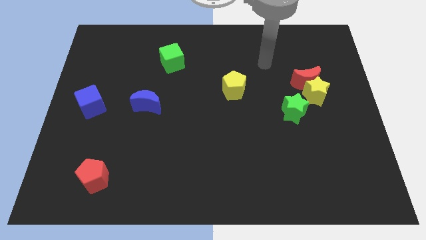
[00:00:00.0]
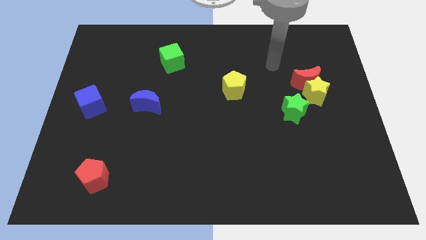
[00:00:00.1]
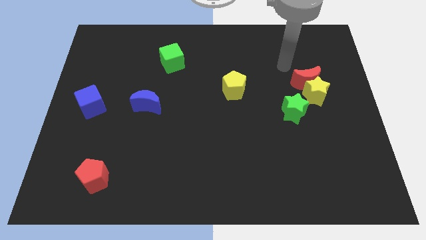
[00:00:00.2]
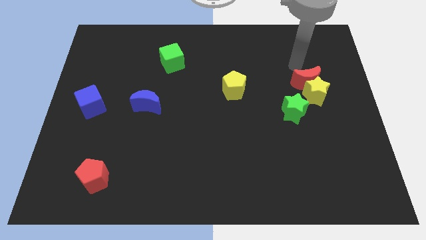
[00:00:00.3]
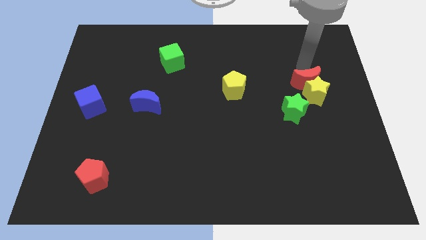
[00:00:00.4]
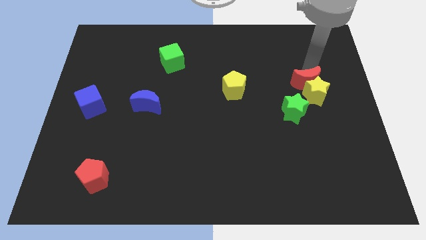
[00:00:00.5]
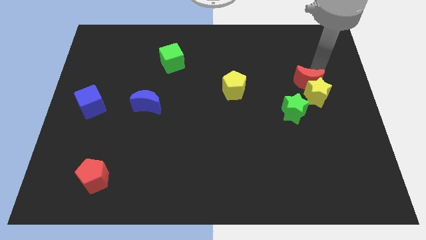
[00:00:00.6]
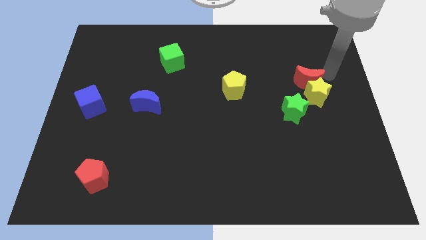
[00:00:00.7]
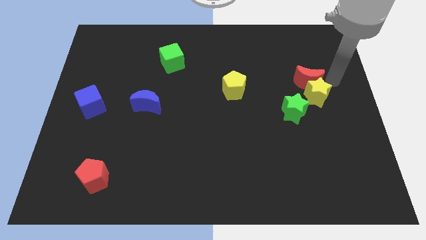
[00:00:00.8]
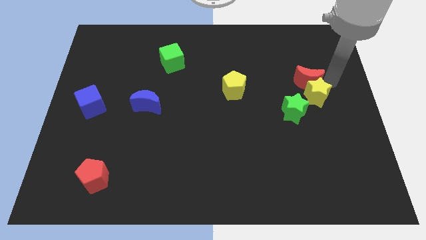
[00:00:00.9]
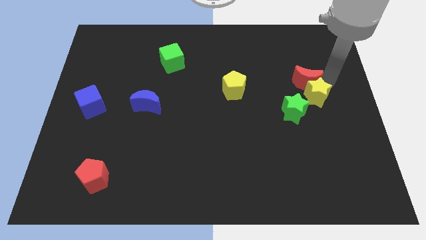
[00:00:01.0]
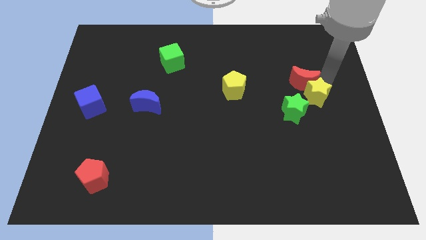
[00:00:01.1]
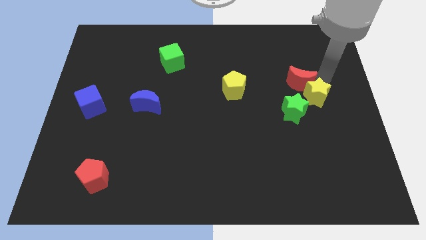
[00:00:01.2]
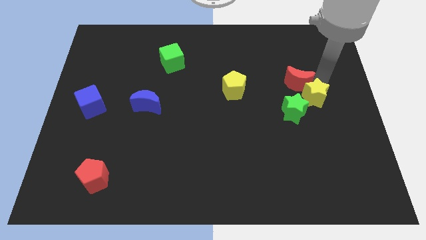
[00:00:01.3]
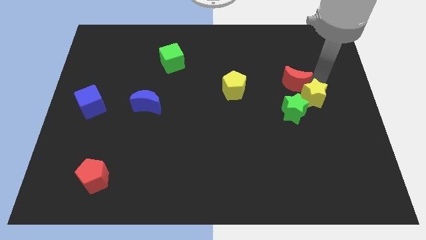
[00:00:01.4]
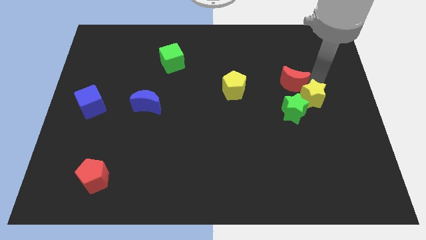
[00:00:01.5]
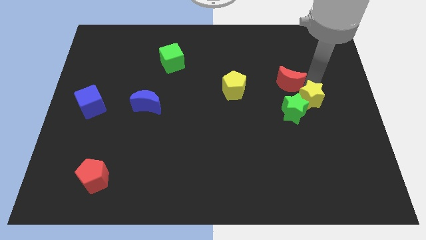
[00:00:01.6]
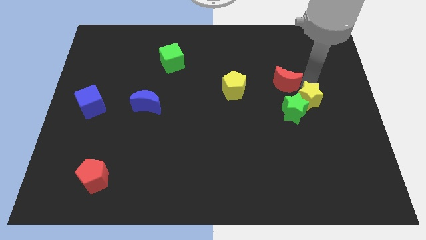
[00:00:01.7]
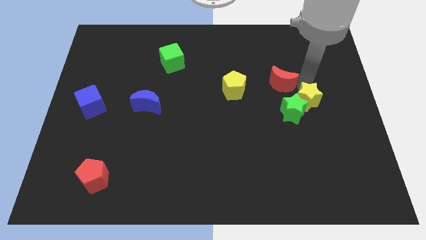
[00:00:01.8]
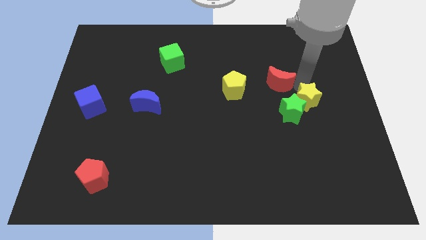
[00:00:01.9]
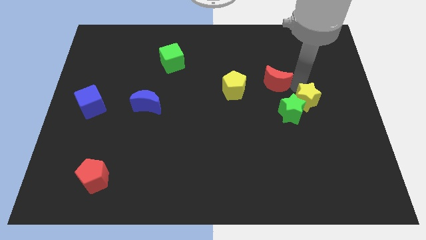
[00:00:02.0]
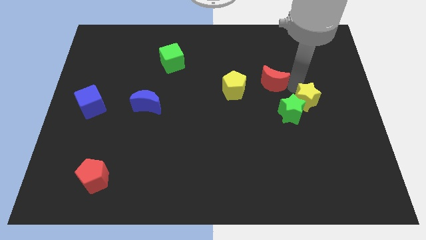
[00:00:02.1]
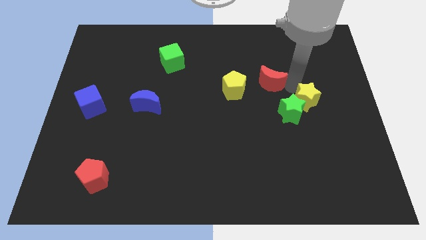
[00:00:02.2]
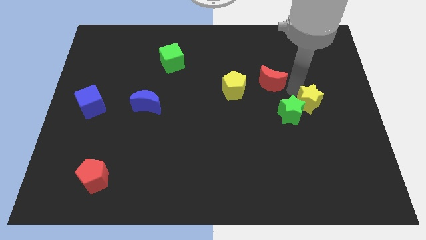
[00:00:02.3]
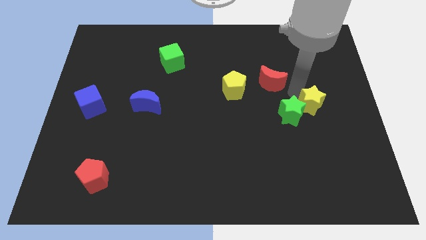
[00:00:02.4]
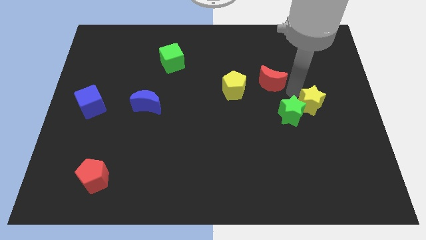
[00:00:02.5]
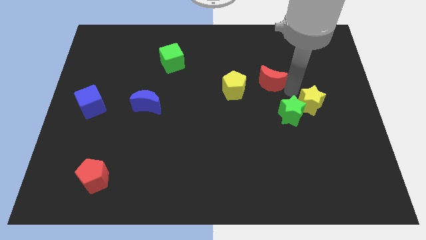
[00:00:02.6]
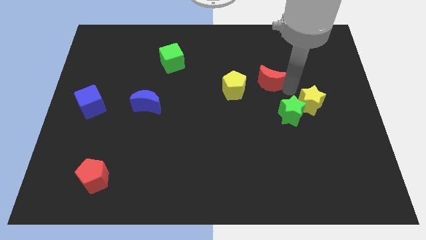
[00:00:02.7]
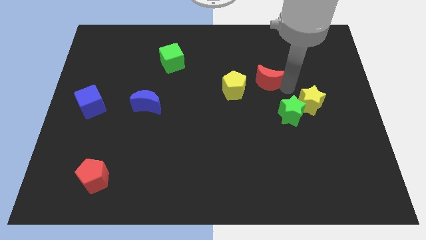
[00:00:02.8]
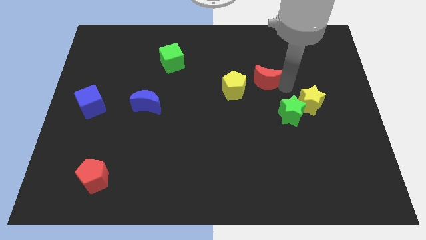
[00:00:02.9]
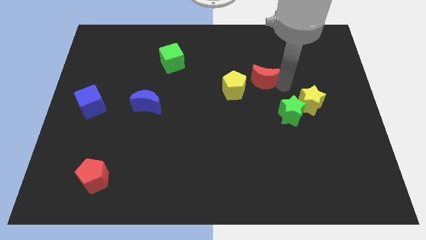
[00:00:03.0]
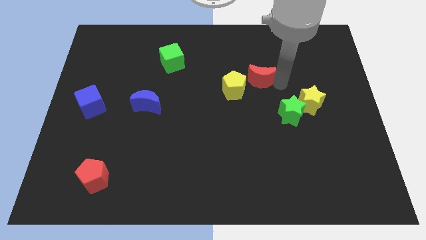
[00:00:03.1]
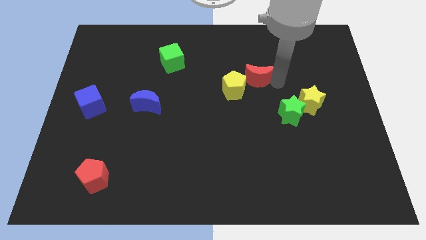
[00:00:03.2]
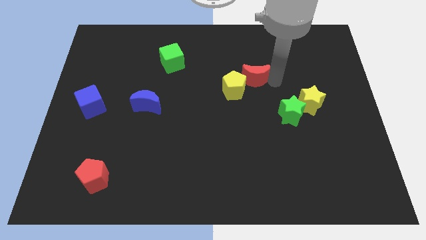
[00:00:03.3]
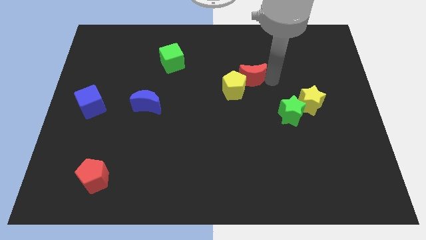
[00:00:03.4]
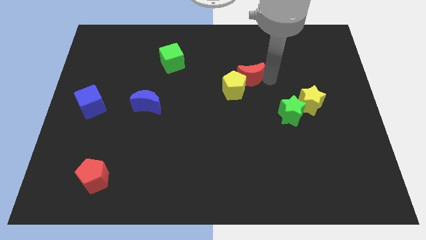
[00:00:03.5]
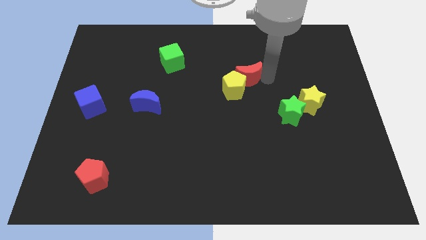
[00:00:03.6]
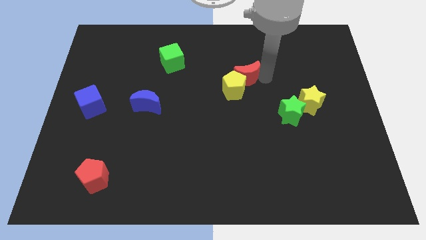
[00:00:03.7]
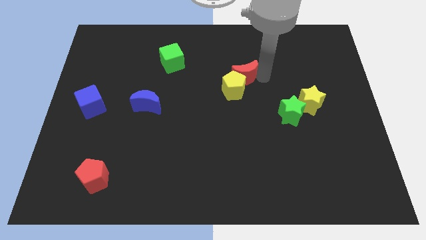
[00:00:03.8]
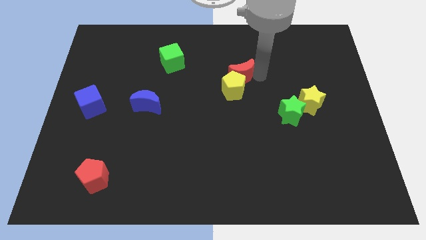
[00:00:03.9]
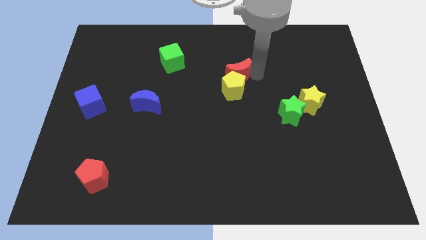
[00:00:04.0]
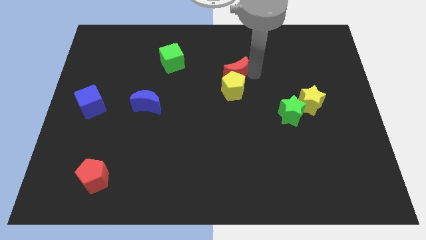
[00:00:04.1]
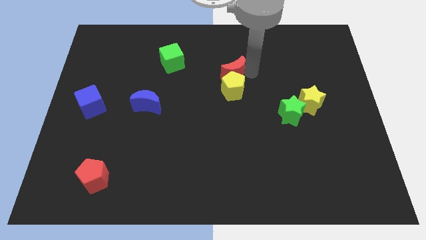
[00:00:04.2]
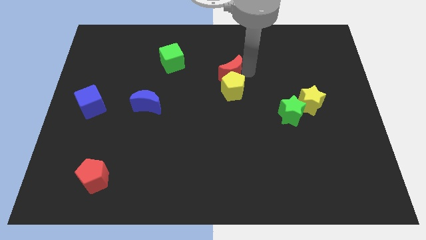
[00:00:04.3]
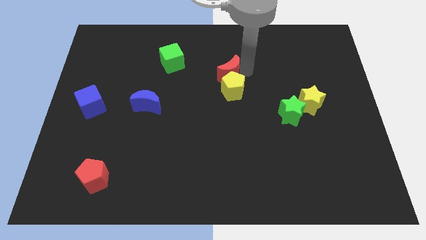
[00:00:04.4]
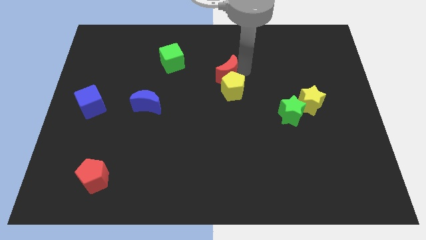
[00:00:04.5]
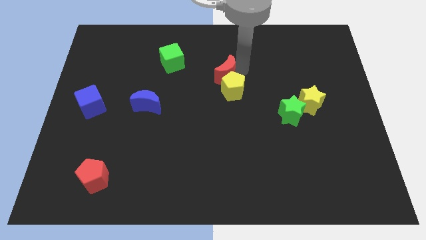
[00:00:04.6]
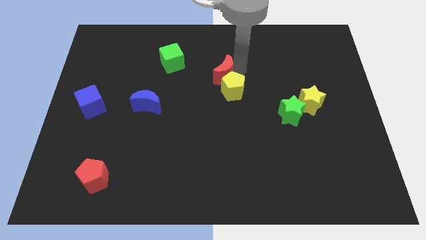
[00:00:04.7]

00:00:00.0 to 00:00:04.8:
move the red moon to the left

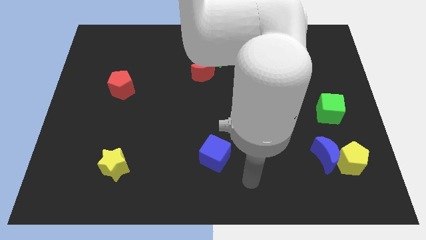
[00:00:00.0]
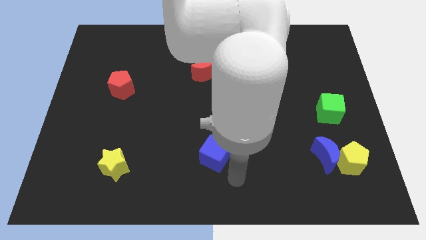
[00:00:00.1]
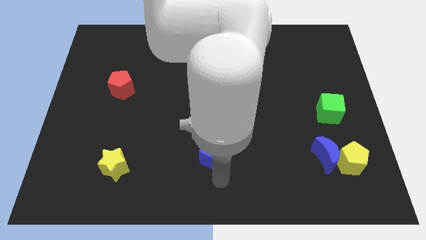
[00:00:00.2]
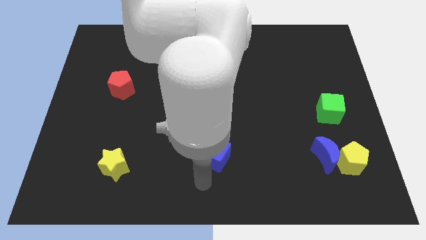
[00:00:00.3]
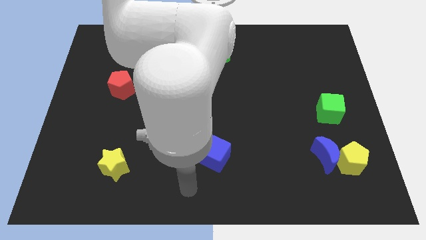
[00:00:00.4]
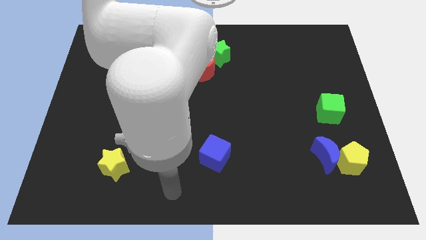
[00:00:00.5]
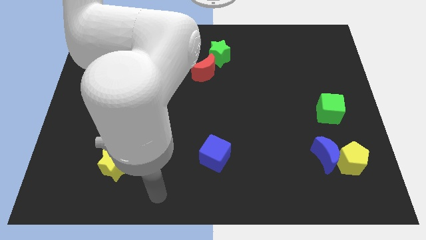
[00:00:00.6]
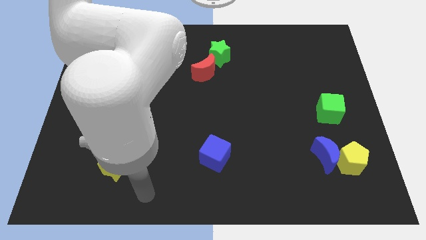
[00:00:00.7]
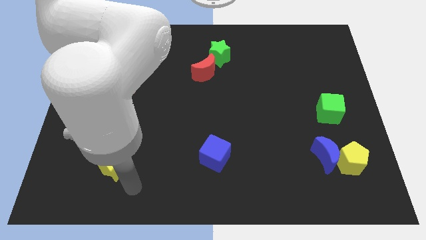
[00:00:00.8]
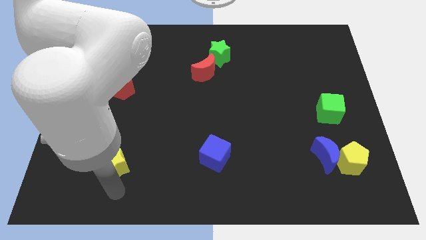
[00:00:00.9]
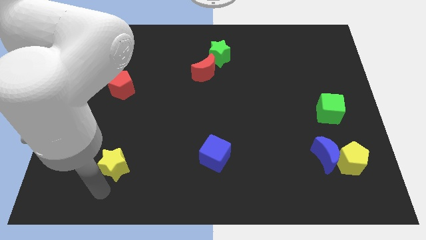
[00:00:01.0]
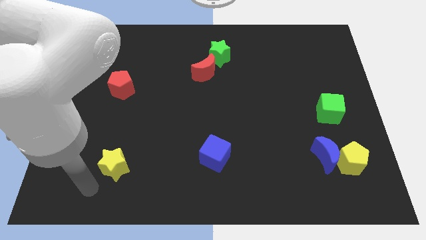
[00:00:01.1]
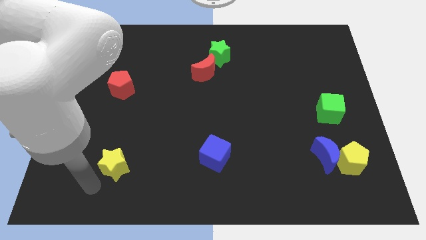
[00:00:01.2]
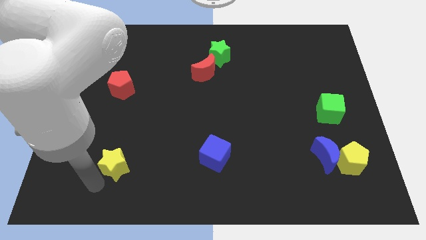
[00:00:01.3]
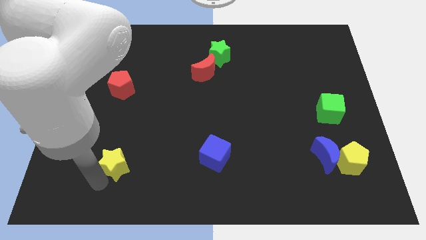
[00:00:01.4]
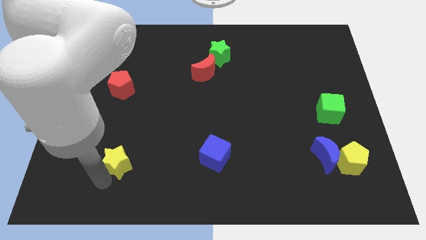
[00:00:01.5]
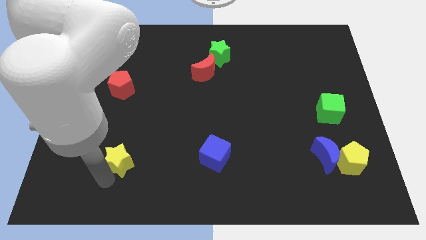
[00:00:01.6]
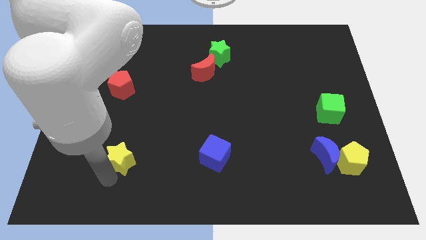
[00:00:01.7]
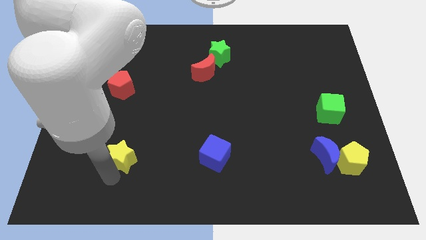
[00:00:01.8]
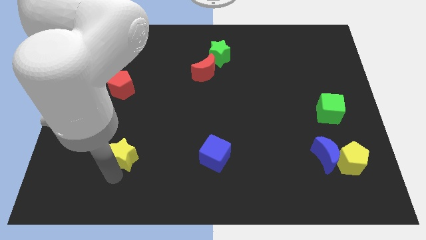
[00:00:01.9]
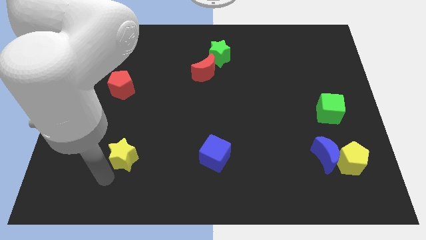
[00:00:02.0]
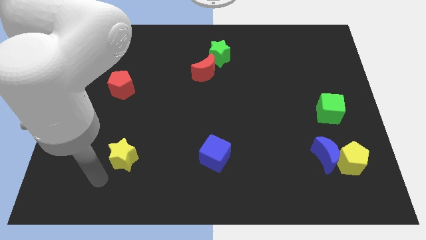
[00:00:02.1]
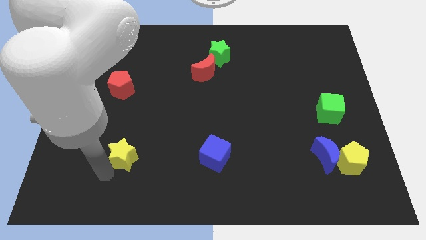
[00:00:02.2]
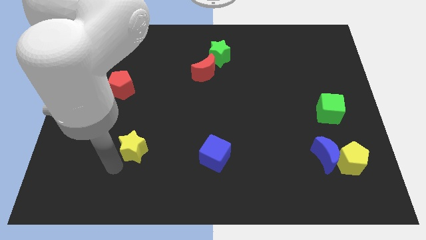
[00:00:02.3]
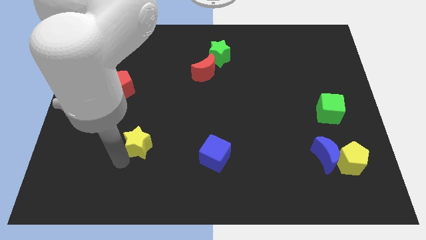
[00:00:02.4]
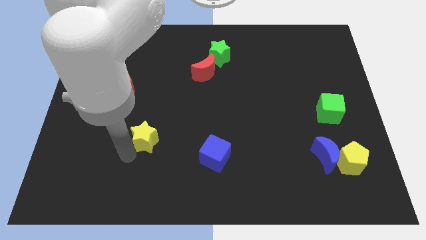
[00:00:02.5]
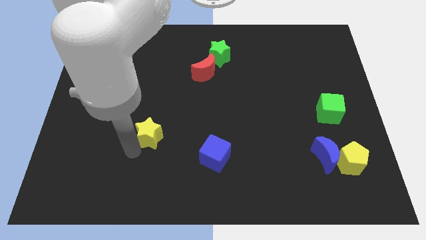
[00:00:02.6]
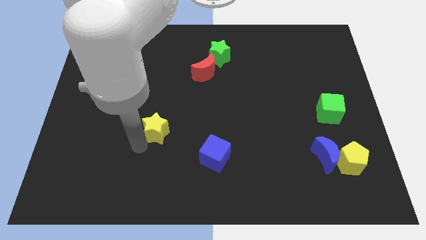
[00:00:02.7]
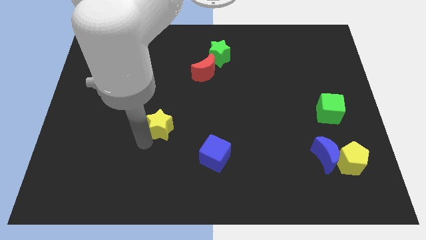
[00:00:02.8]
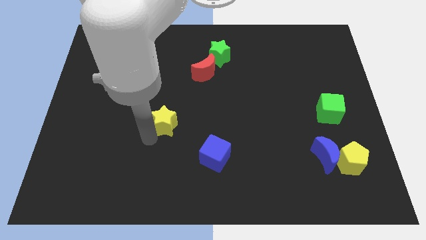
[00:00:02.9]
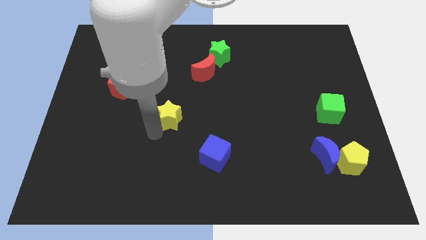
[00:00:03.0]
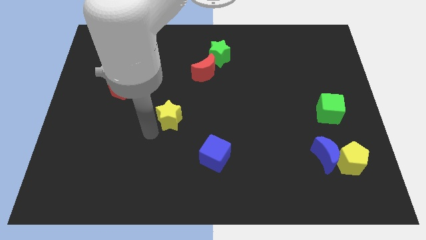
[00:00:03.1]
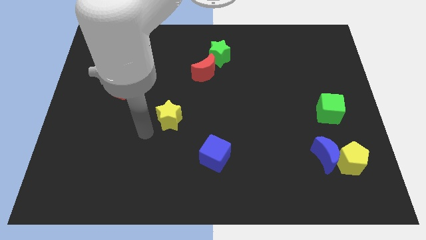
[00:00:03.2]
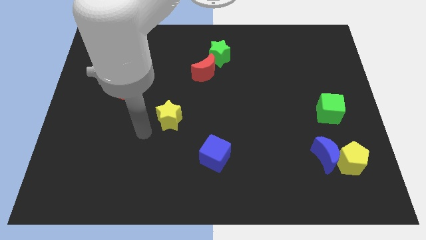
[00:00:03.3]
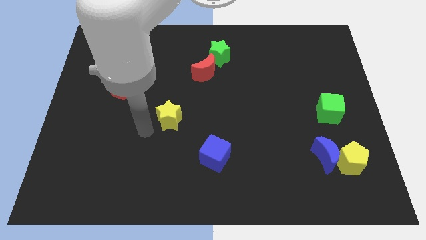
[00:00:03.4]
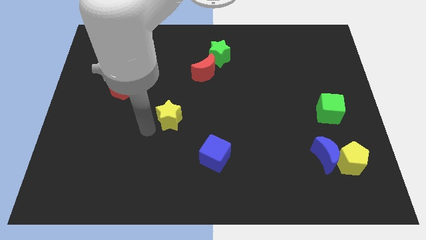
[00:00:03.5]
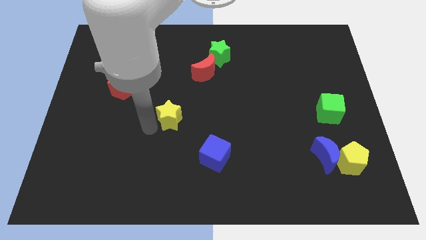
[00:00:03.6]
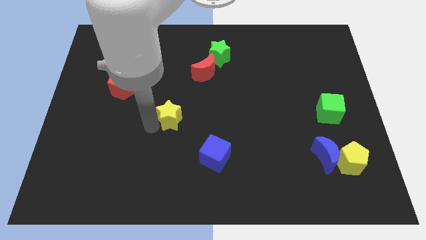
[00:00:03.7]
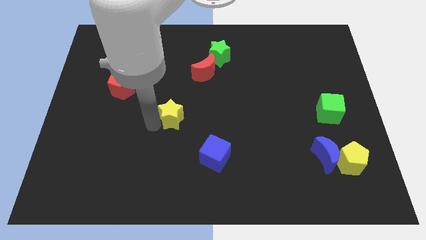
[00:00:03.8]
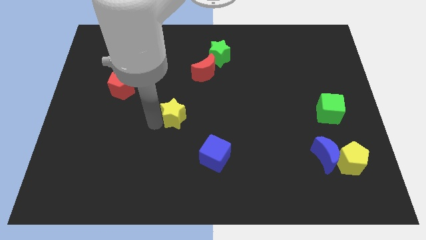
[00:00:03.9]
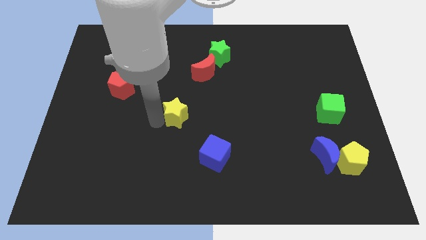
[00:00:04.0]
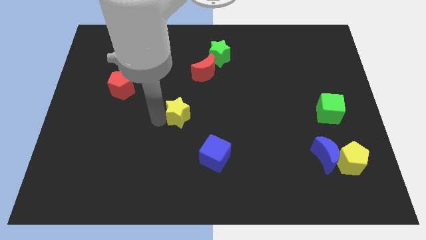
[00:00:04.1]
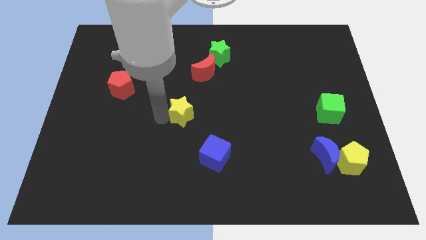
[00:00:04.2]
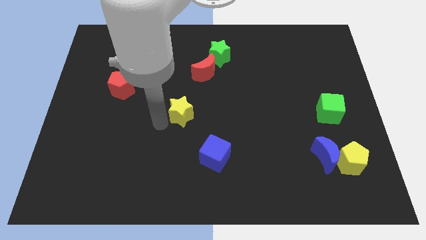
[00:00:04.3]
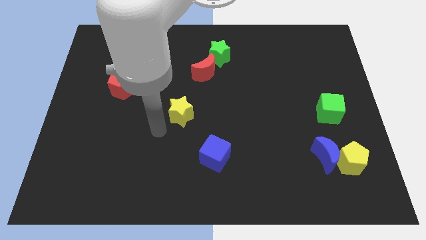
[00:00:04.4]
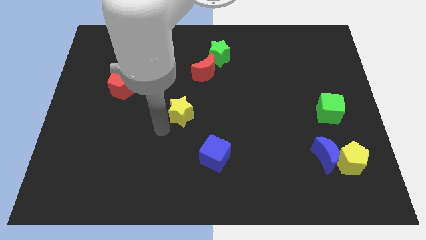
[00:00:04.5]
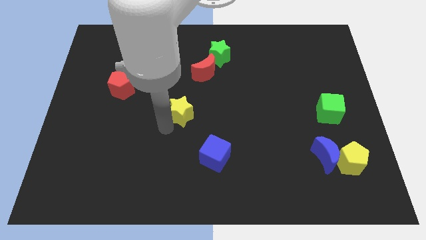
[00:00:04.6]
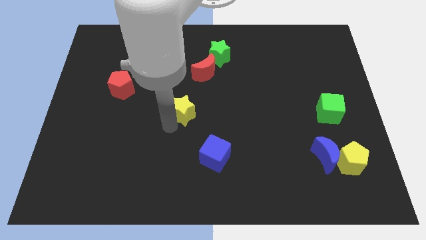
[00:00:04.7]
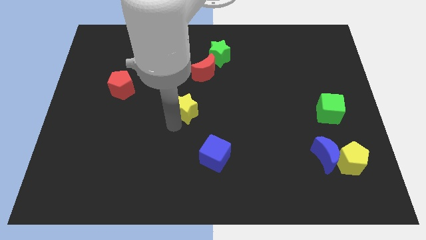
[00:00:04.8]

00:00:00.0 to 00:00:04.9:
move the yellow star up and then to the right
